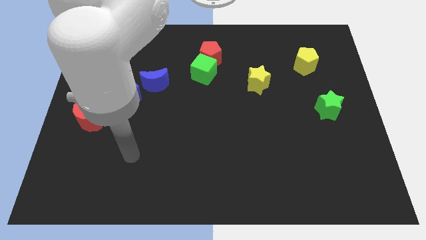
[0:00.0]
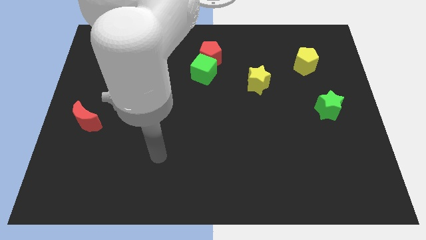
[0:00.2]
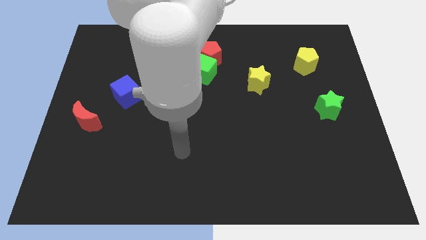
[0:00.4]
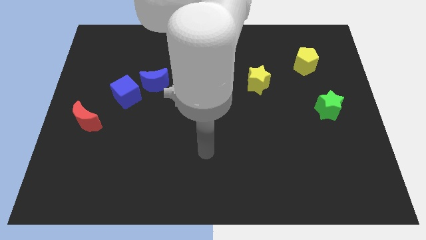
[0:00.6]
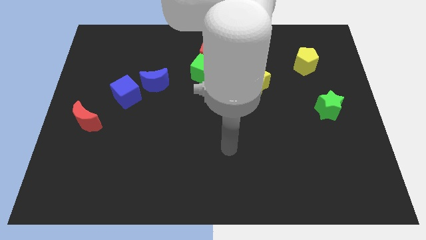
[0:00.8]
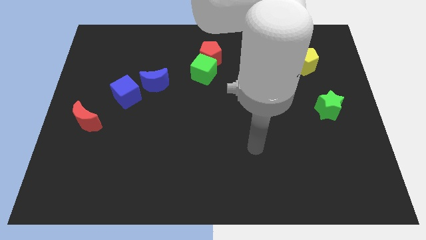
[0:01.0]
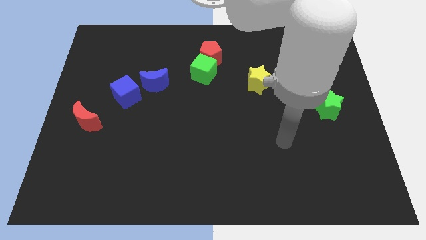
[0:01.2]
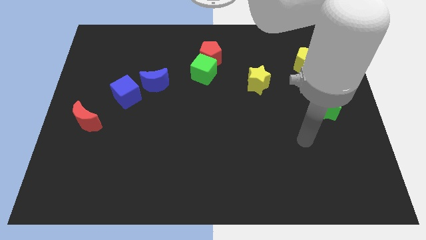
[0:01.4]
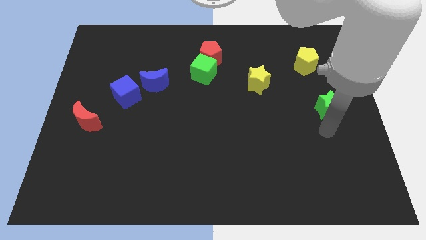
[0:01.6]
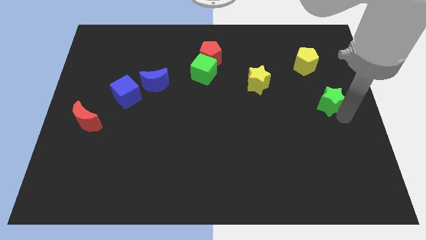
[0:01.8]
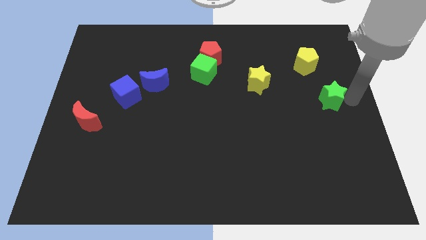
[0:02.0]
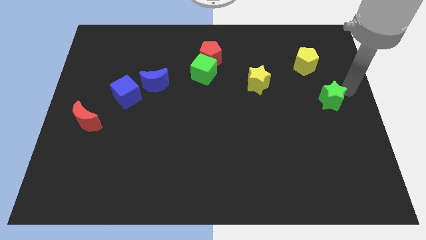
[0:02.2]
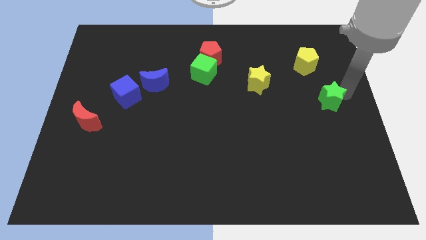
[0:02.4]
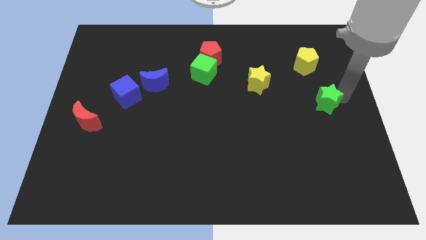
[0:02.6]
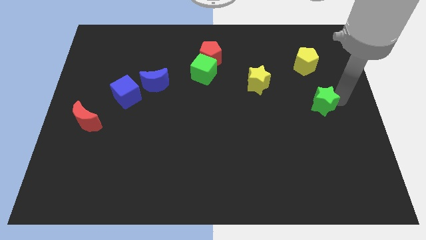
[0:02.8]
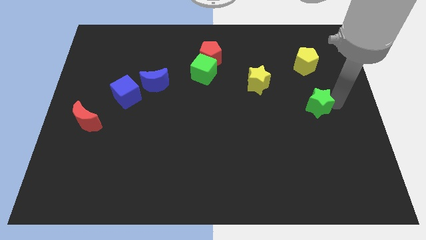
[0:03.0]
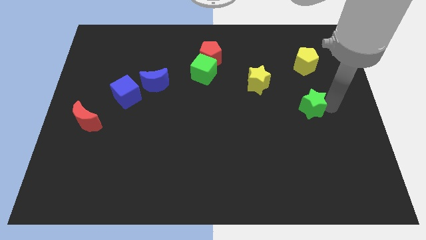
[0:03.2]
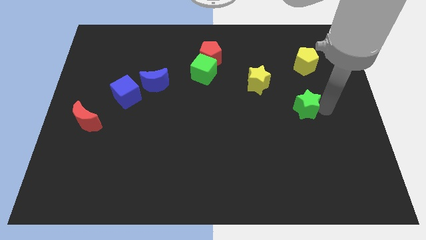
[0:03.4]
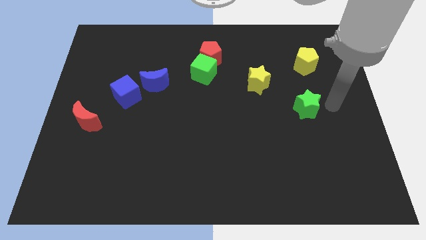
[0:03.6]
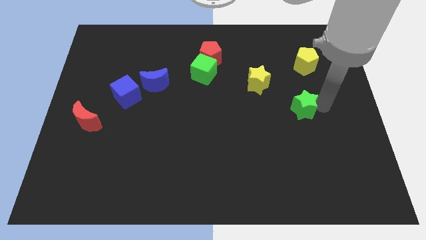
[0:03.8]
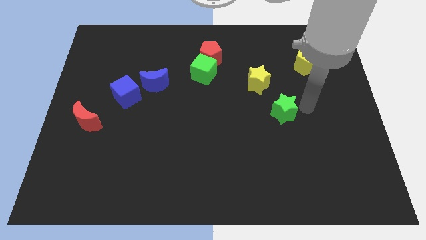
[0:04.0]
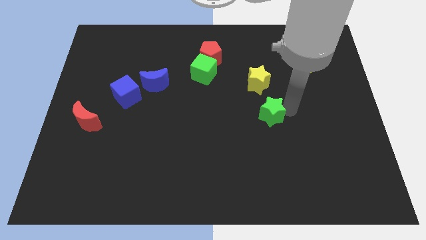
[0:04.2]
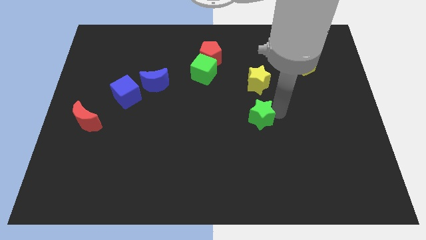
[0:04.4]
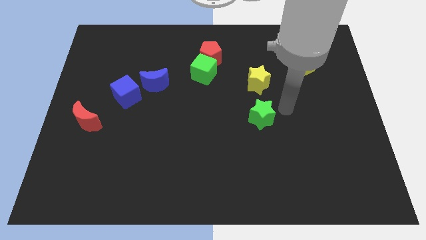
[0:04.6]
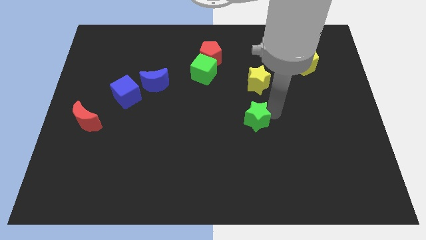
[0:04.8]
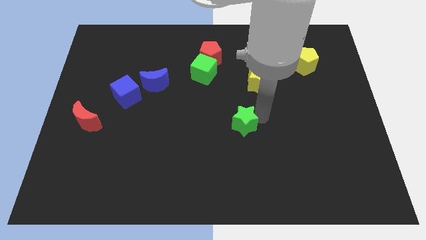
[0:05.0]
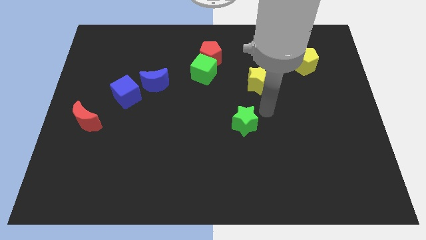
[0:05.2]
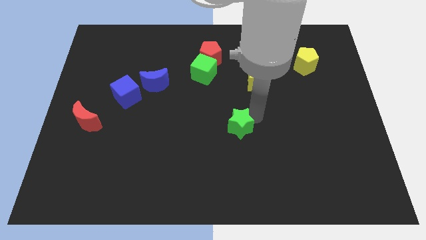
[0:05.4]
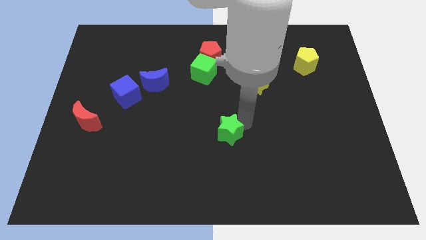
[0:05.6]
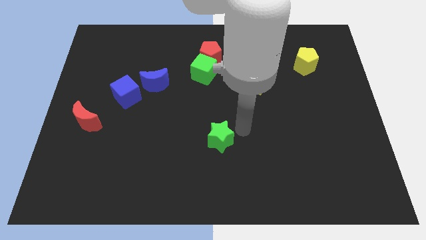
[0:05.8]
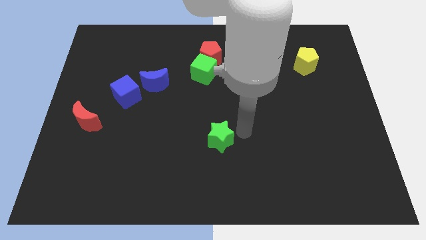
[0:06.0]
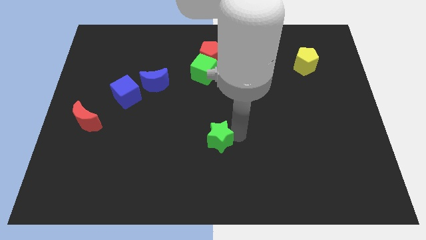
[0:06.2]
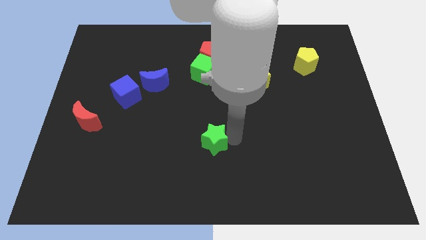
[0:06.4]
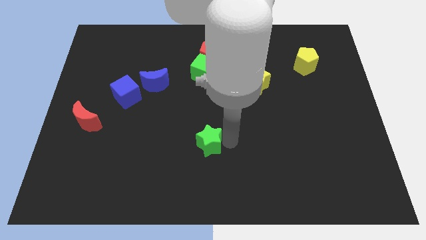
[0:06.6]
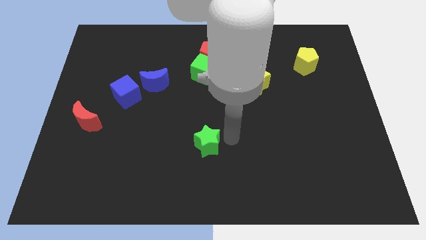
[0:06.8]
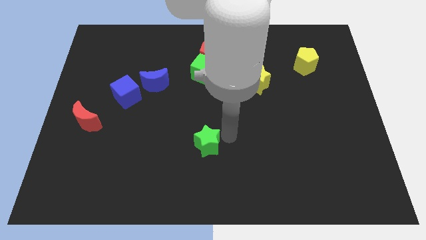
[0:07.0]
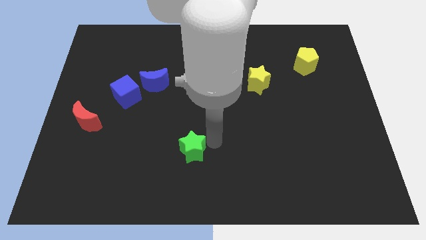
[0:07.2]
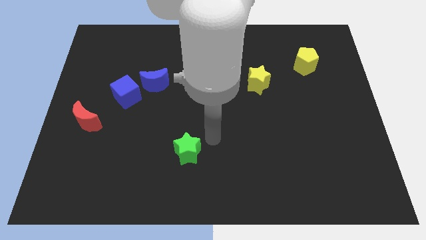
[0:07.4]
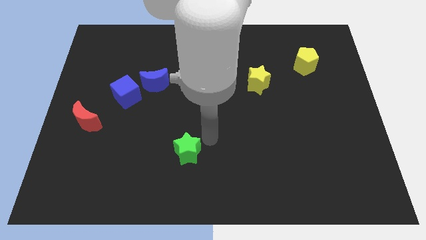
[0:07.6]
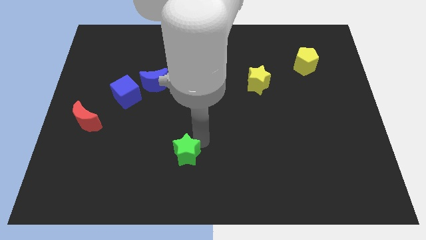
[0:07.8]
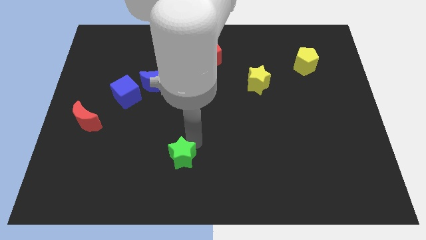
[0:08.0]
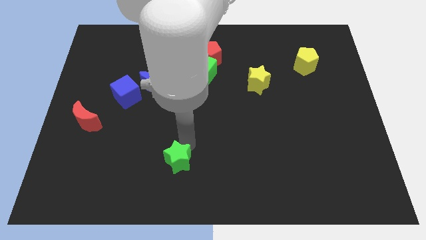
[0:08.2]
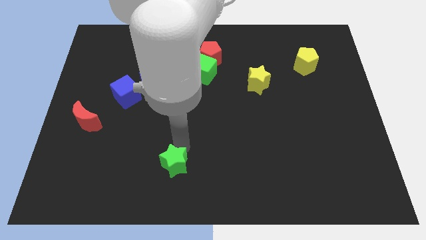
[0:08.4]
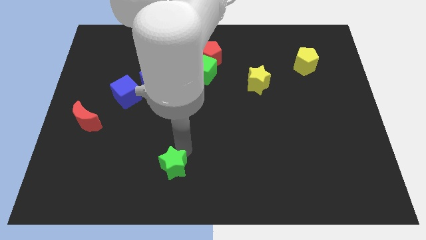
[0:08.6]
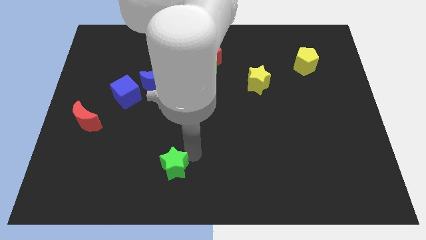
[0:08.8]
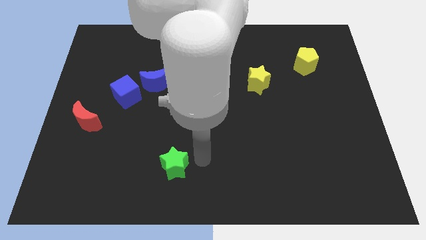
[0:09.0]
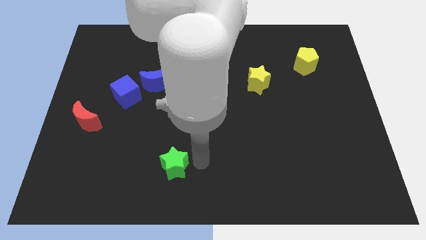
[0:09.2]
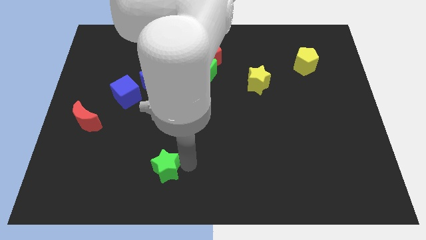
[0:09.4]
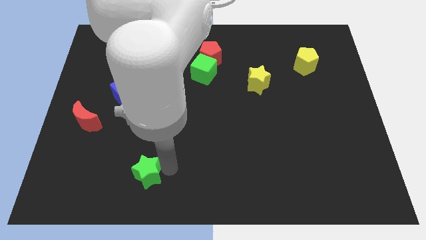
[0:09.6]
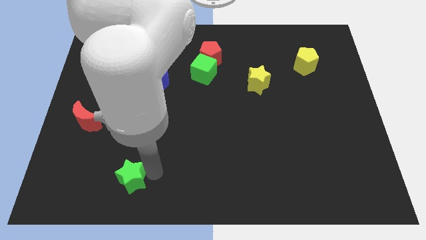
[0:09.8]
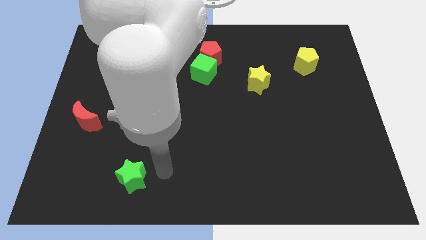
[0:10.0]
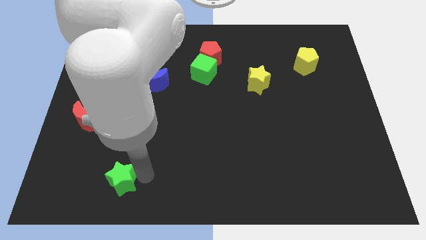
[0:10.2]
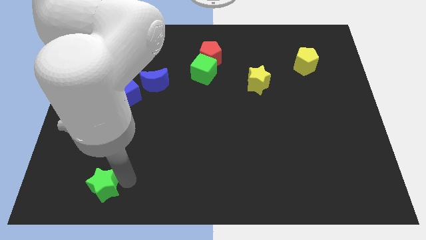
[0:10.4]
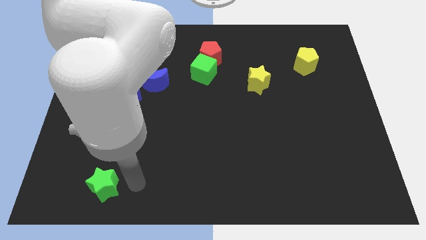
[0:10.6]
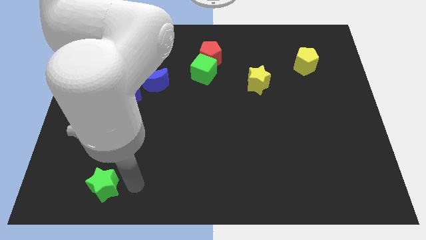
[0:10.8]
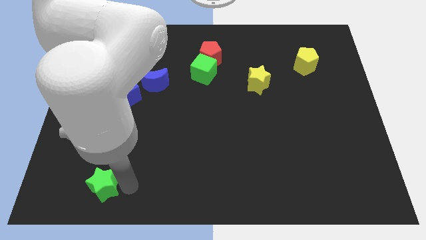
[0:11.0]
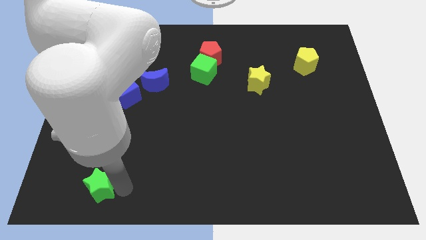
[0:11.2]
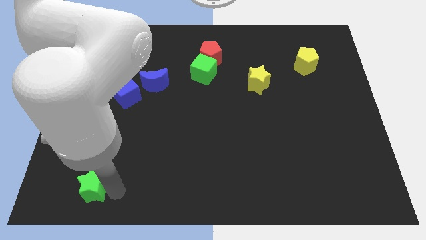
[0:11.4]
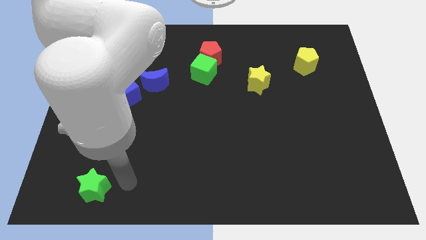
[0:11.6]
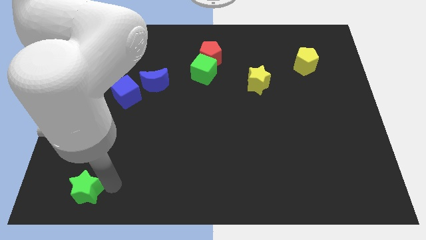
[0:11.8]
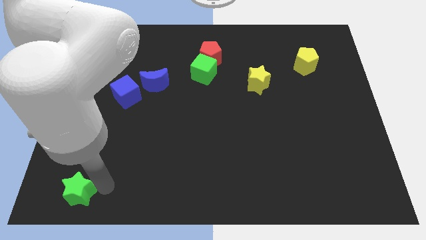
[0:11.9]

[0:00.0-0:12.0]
slide the green star to the bottom left of the board

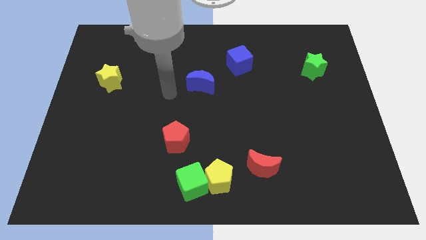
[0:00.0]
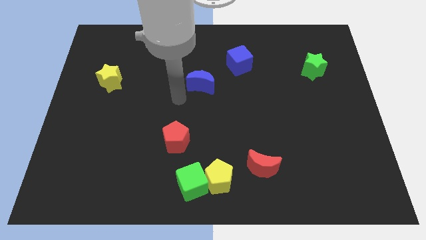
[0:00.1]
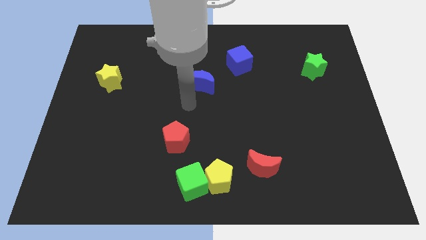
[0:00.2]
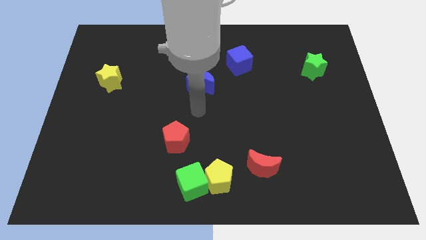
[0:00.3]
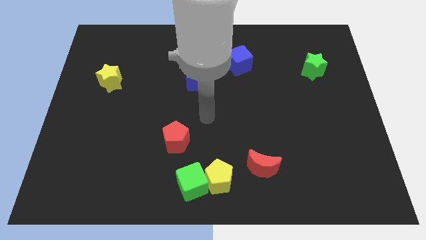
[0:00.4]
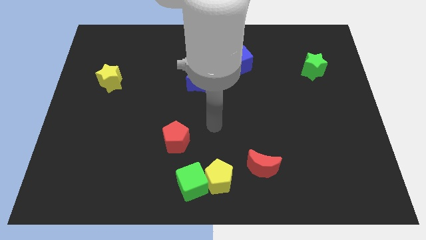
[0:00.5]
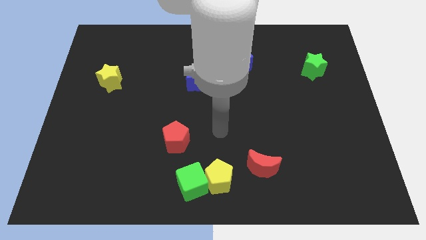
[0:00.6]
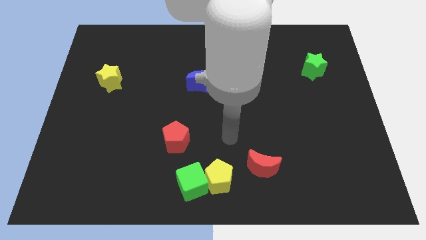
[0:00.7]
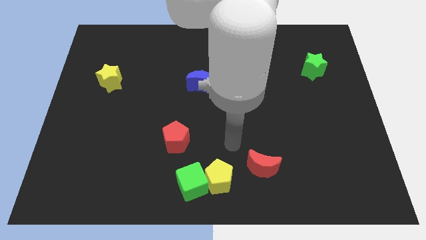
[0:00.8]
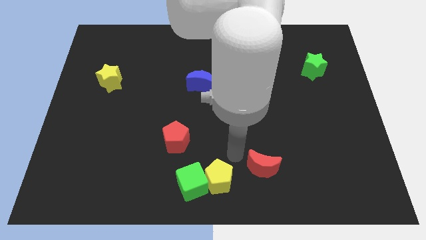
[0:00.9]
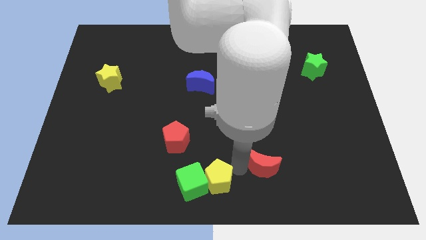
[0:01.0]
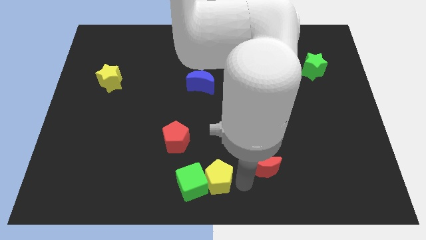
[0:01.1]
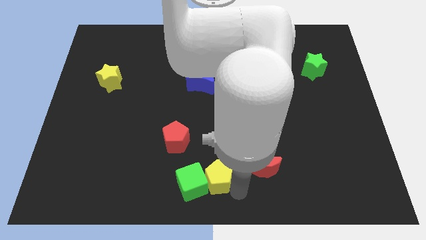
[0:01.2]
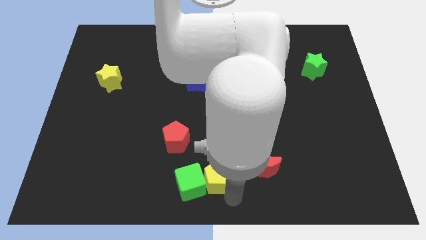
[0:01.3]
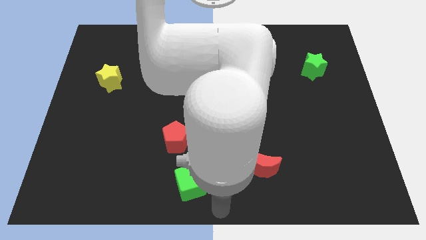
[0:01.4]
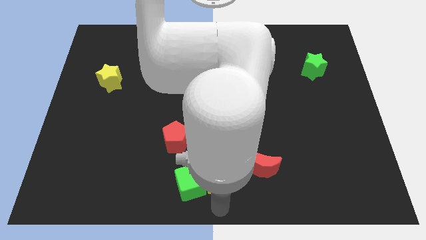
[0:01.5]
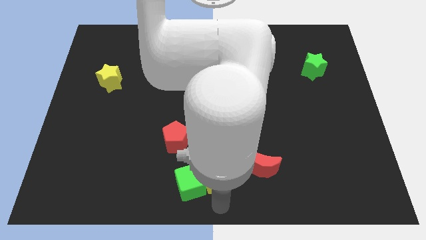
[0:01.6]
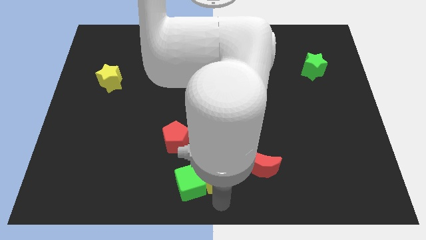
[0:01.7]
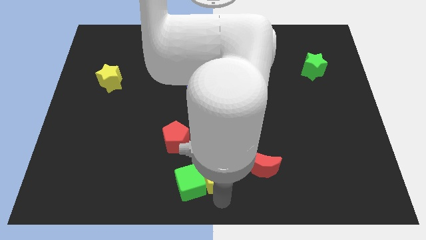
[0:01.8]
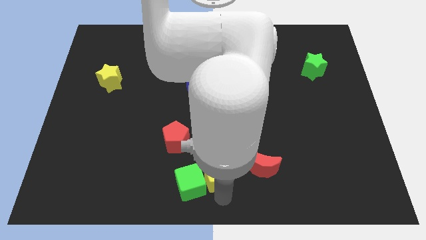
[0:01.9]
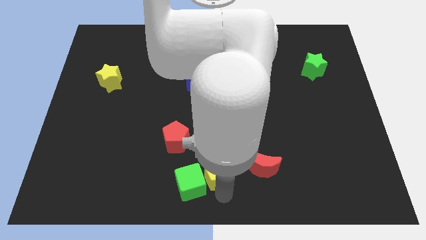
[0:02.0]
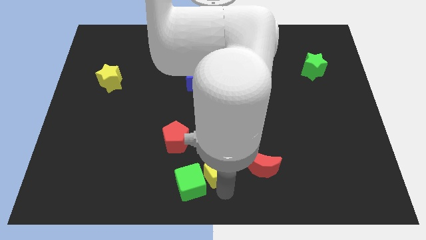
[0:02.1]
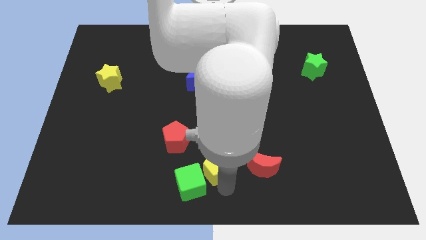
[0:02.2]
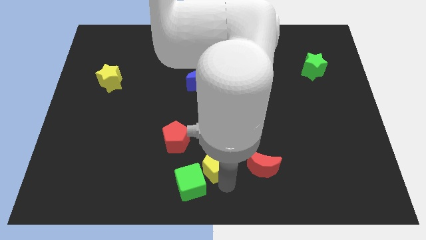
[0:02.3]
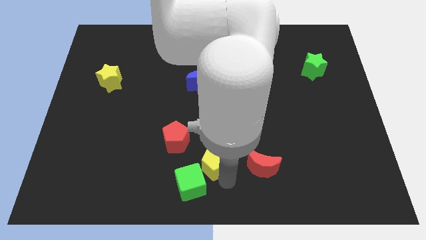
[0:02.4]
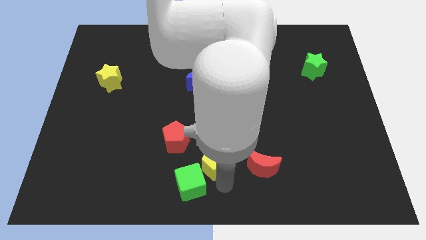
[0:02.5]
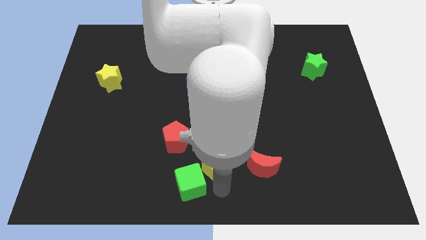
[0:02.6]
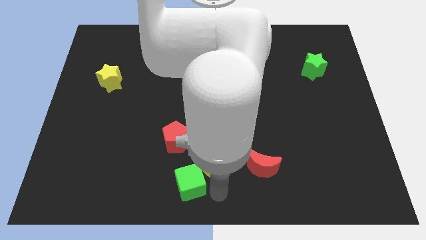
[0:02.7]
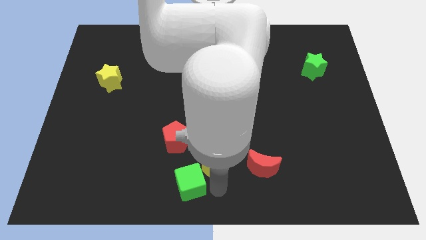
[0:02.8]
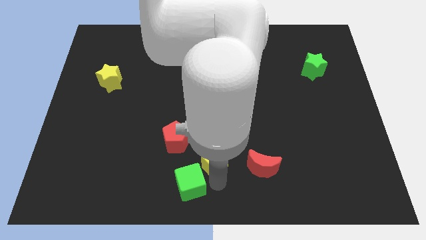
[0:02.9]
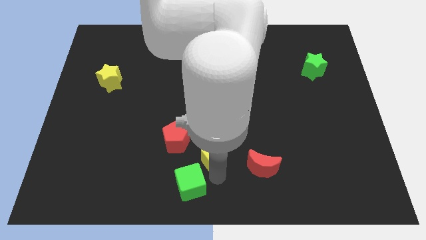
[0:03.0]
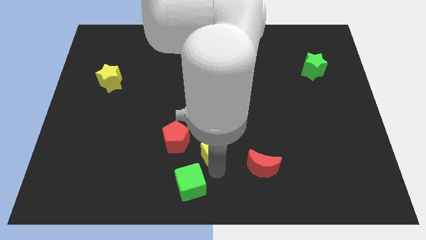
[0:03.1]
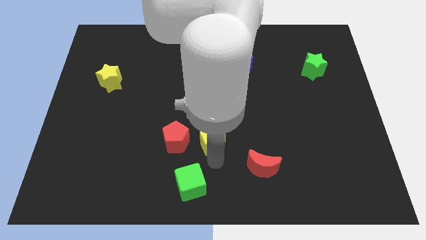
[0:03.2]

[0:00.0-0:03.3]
push the yellow pentagon to the middle of the board
